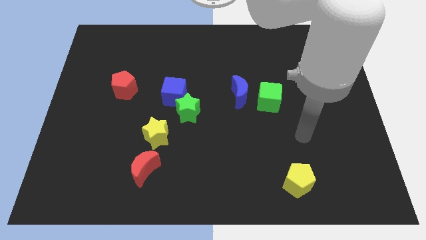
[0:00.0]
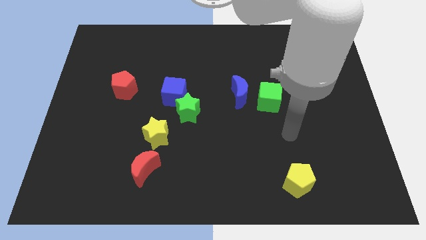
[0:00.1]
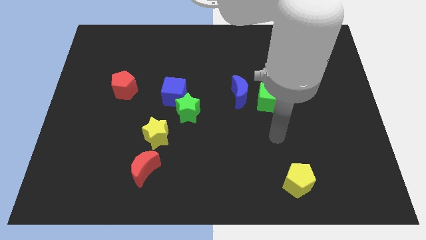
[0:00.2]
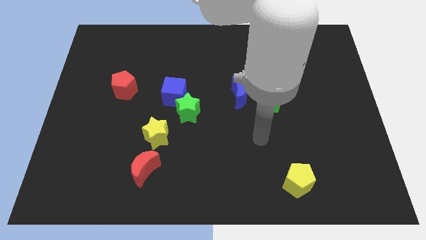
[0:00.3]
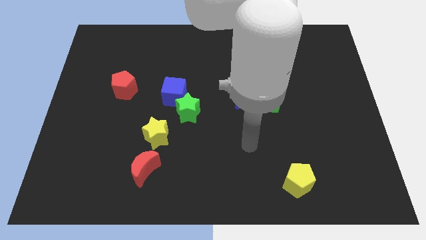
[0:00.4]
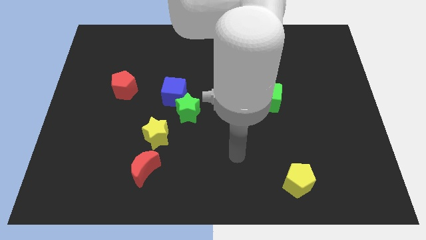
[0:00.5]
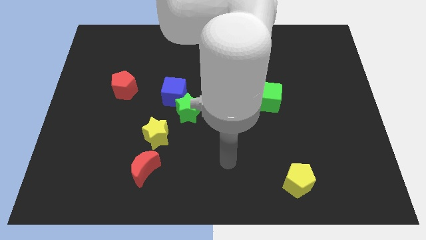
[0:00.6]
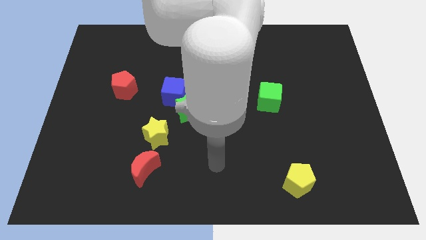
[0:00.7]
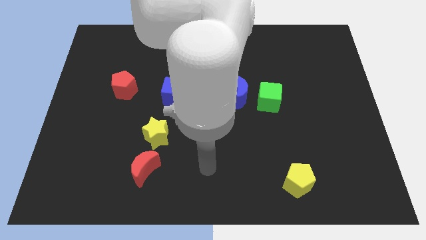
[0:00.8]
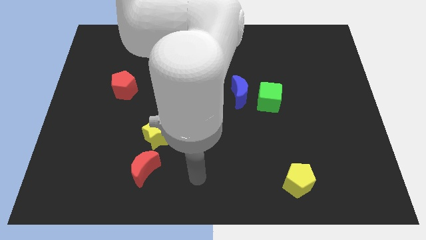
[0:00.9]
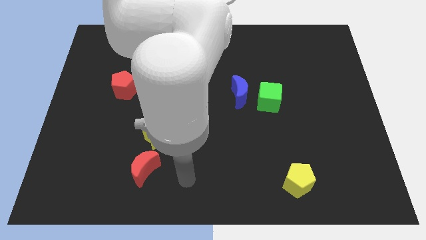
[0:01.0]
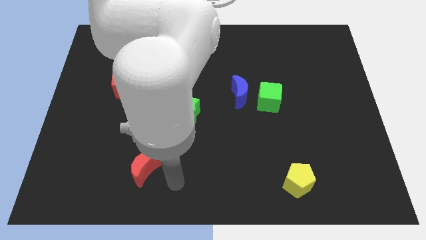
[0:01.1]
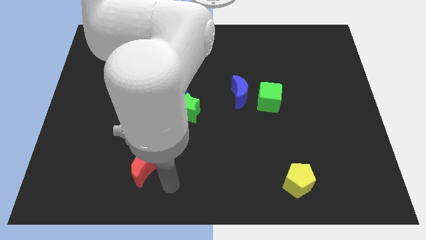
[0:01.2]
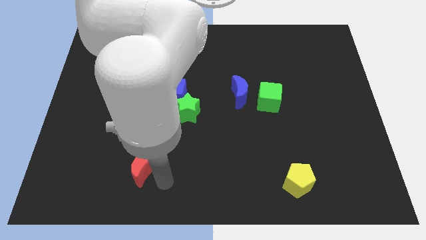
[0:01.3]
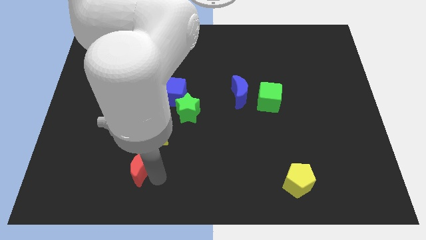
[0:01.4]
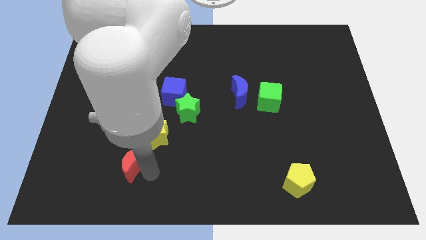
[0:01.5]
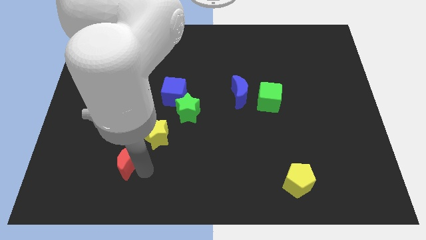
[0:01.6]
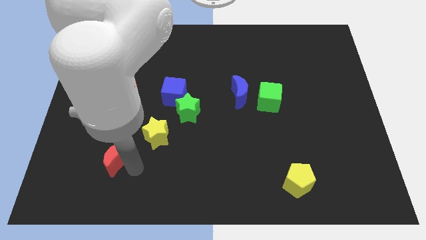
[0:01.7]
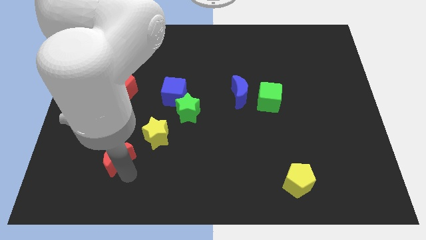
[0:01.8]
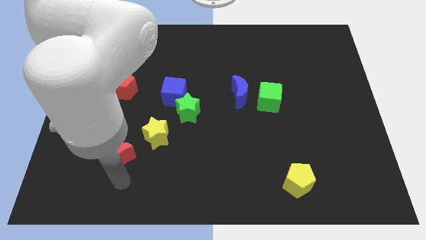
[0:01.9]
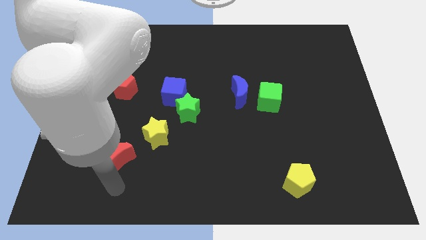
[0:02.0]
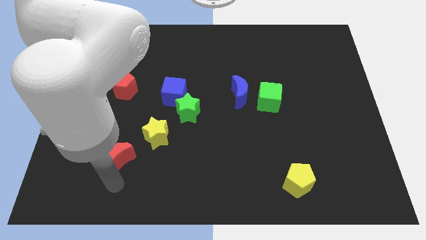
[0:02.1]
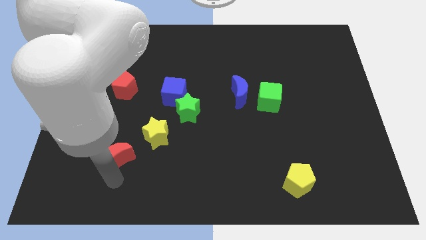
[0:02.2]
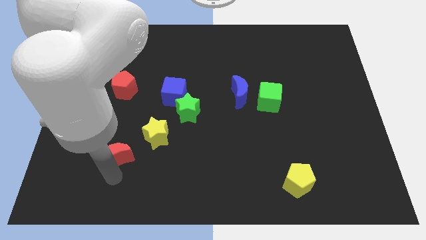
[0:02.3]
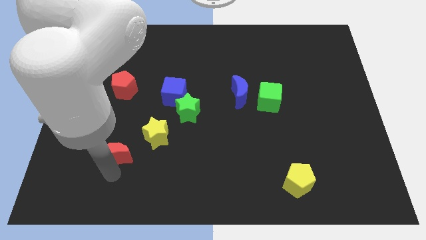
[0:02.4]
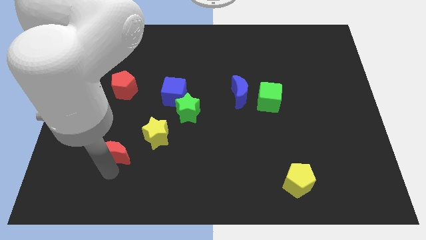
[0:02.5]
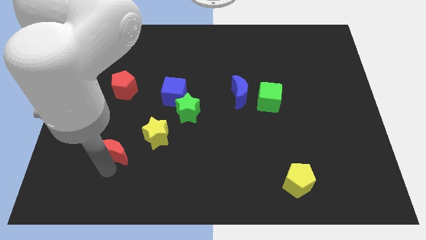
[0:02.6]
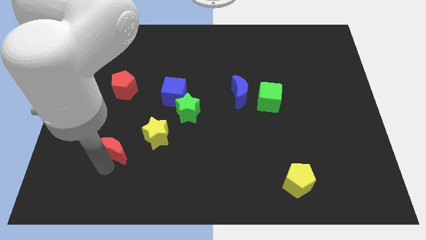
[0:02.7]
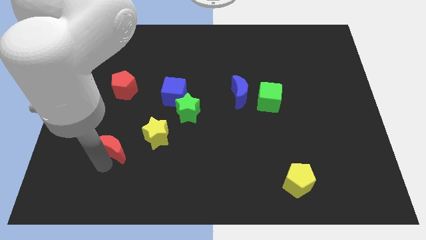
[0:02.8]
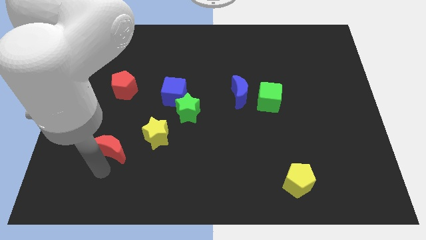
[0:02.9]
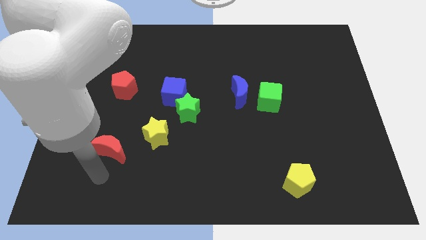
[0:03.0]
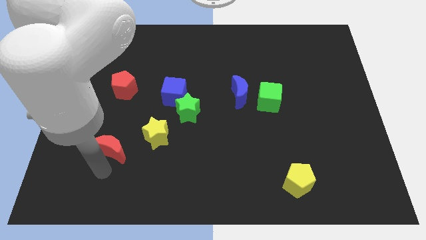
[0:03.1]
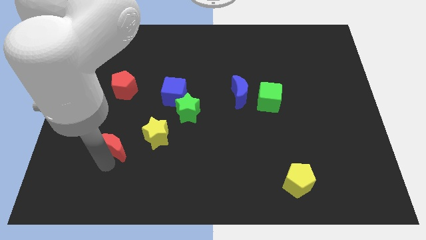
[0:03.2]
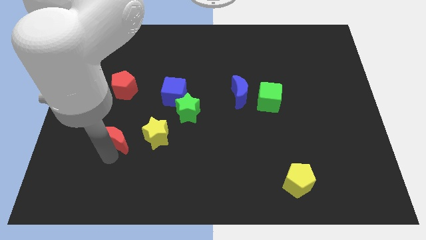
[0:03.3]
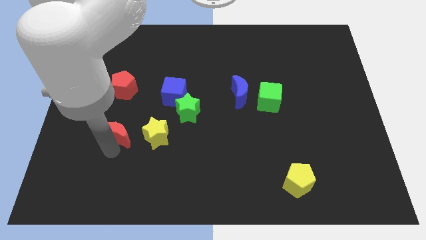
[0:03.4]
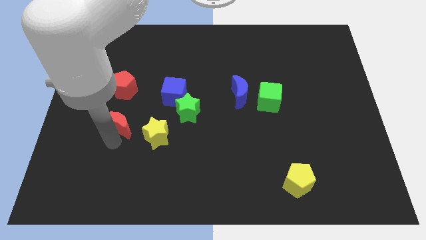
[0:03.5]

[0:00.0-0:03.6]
slide the red moon upwards a bit

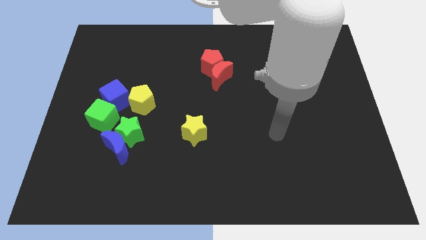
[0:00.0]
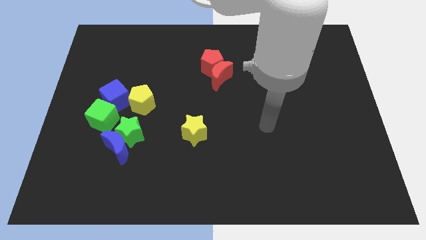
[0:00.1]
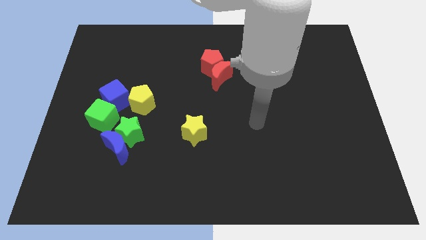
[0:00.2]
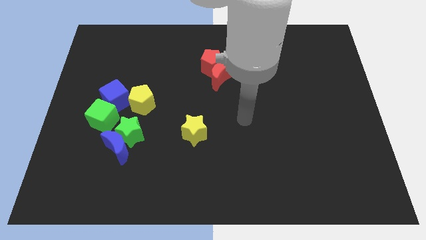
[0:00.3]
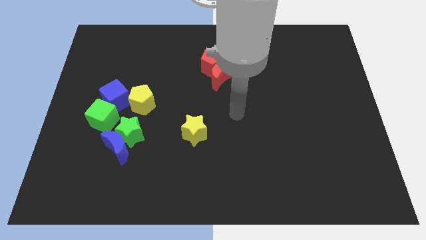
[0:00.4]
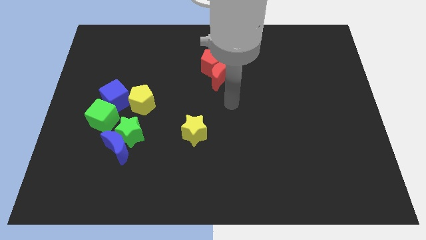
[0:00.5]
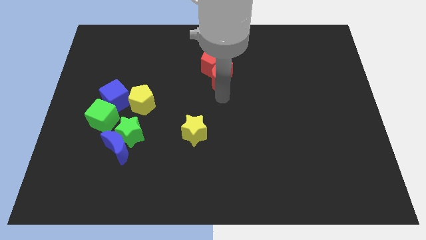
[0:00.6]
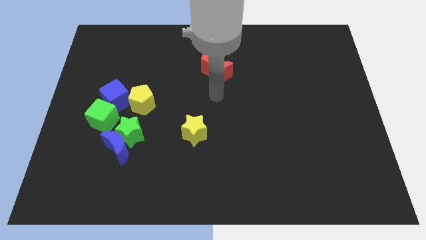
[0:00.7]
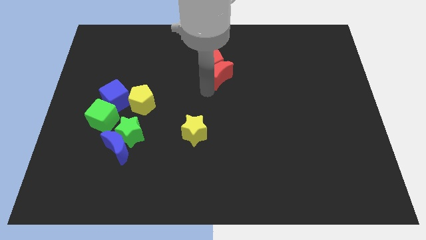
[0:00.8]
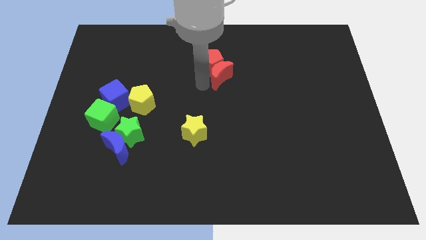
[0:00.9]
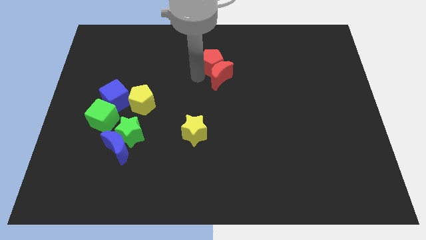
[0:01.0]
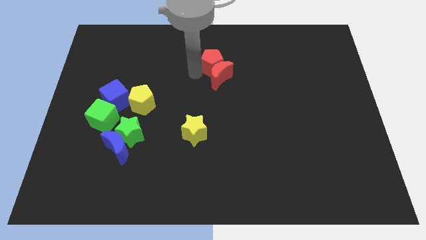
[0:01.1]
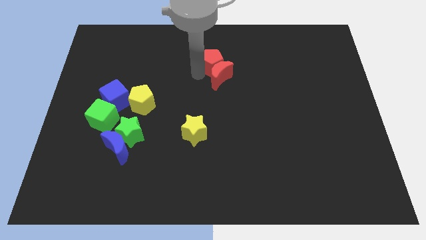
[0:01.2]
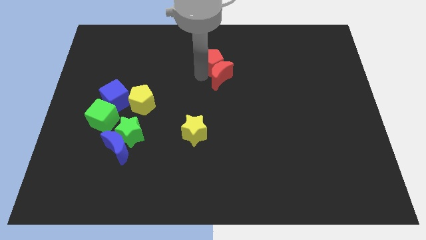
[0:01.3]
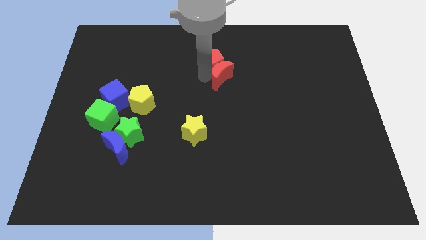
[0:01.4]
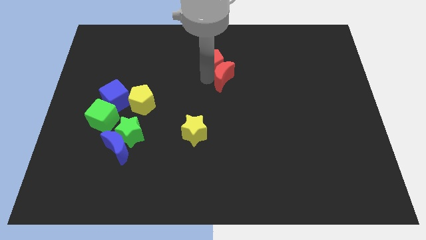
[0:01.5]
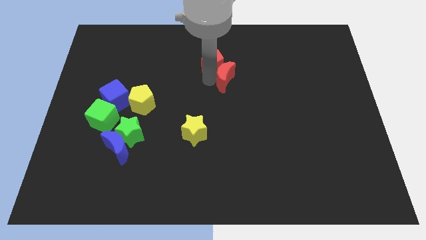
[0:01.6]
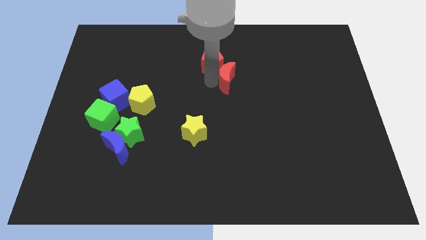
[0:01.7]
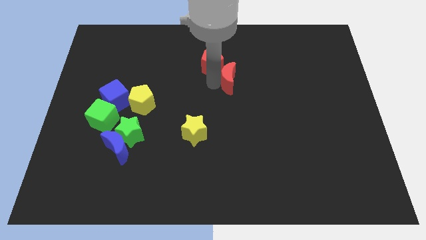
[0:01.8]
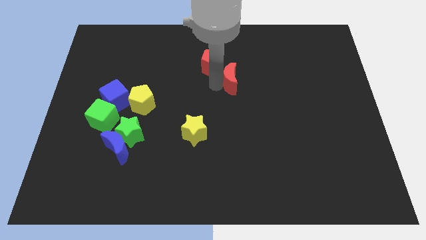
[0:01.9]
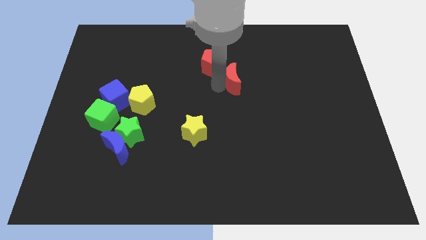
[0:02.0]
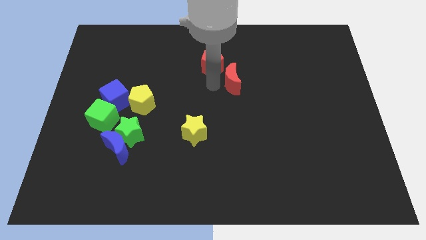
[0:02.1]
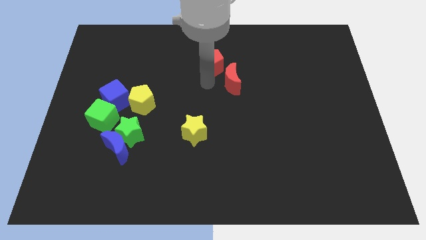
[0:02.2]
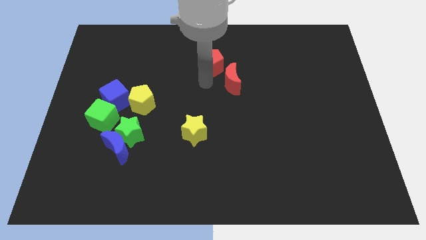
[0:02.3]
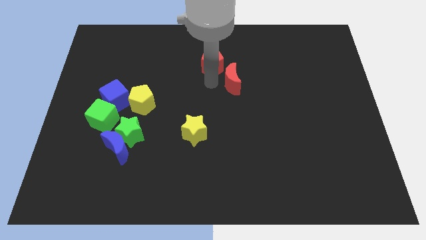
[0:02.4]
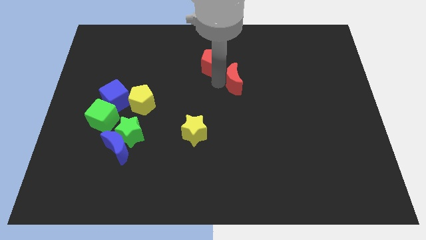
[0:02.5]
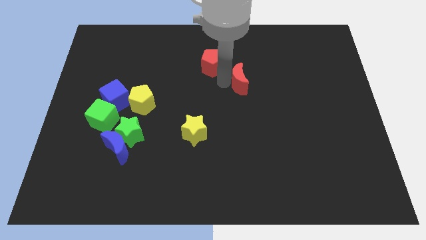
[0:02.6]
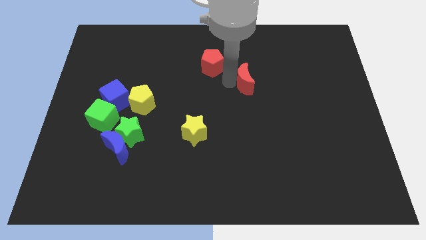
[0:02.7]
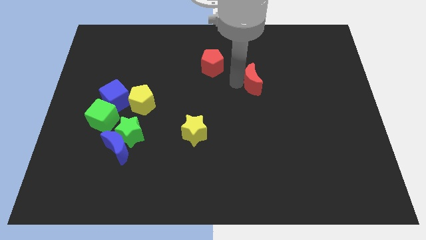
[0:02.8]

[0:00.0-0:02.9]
push the red moon right a bit

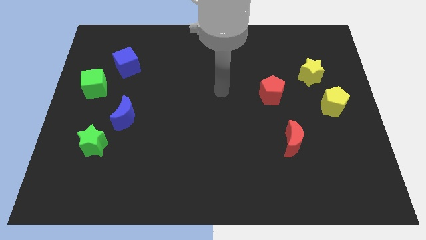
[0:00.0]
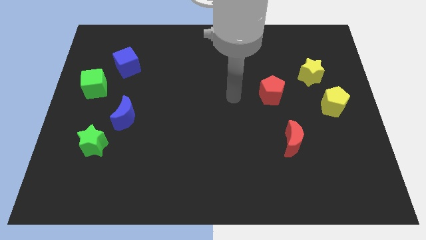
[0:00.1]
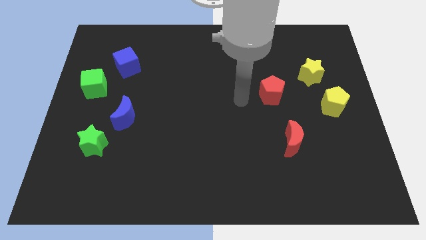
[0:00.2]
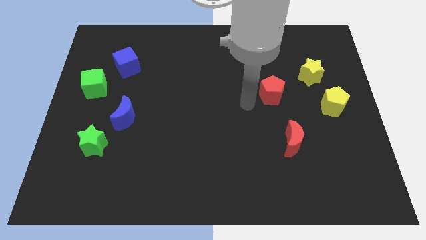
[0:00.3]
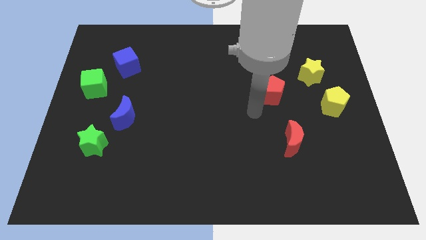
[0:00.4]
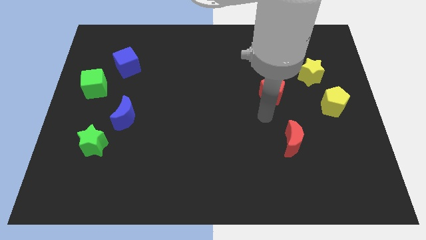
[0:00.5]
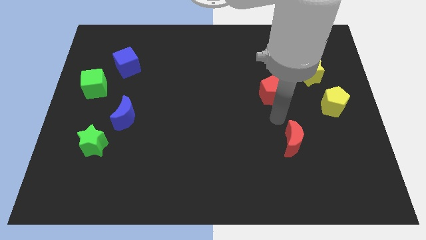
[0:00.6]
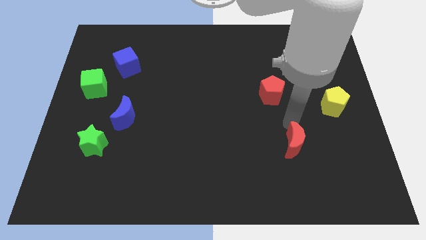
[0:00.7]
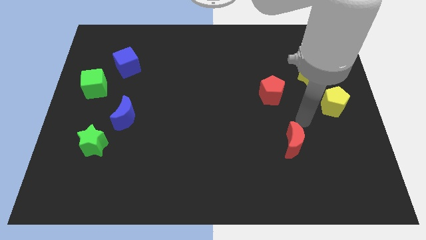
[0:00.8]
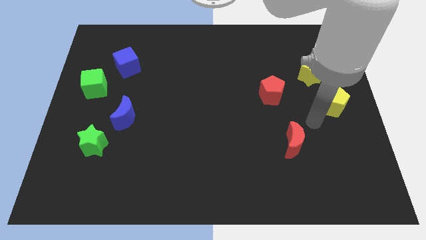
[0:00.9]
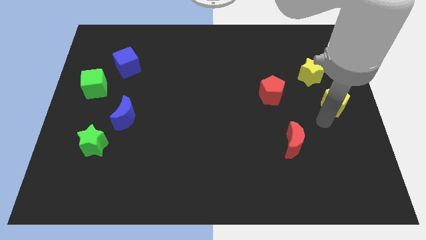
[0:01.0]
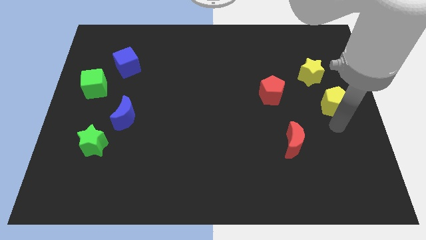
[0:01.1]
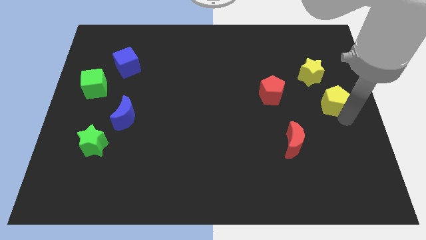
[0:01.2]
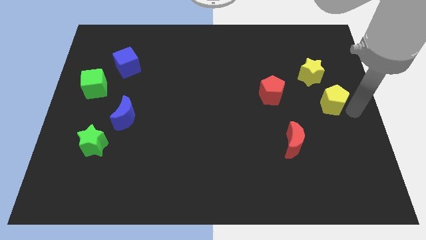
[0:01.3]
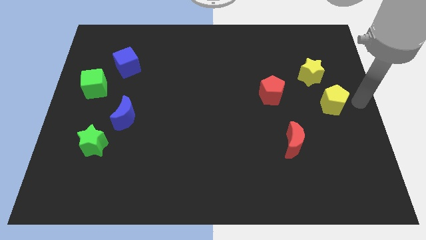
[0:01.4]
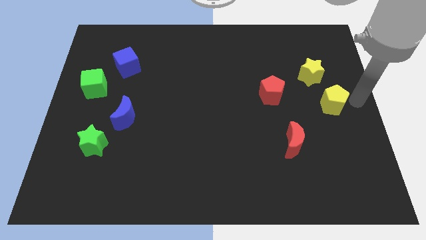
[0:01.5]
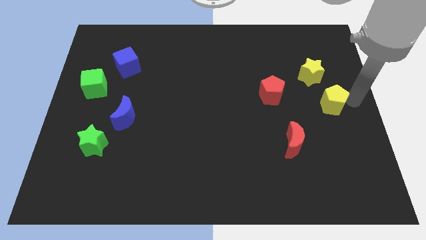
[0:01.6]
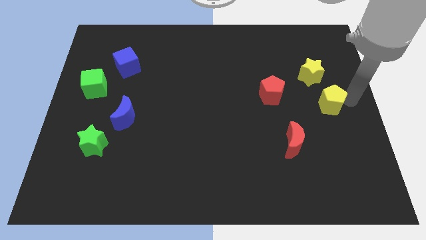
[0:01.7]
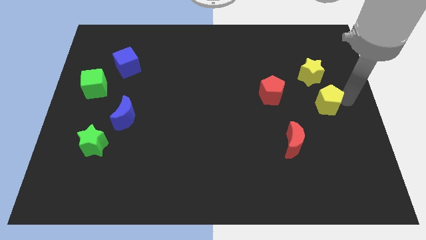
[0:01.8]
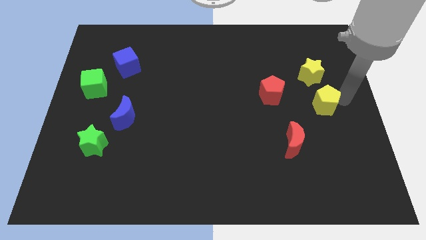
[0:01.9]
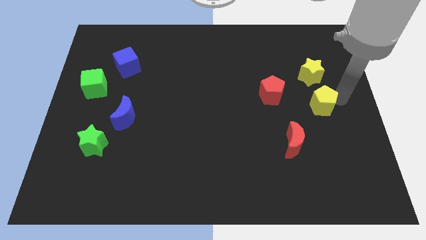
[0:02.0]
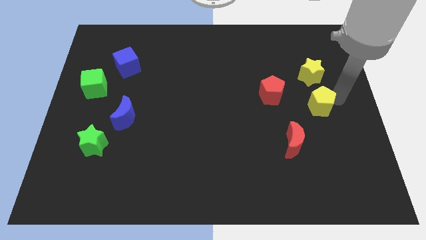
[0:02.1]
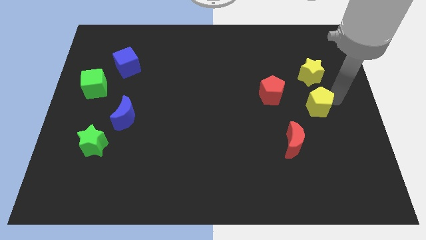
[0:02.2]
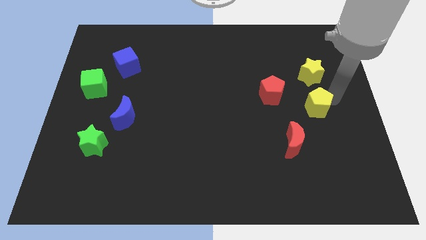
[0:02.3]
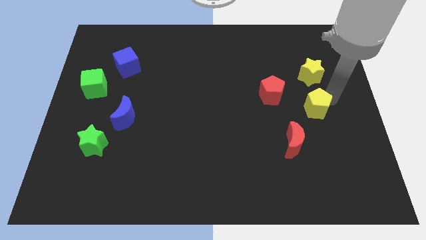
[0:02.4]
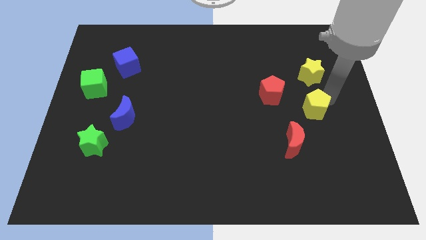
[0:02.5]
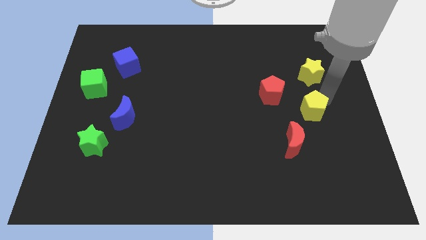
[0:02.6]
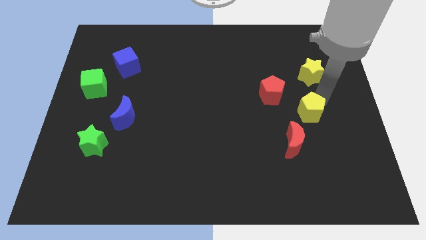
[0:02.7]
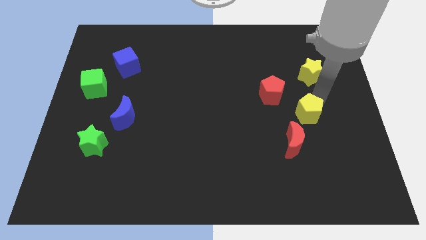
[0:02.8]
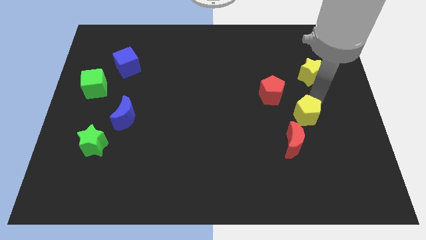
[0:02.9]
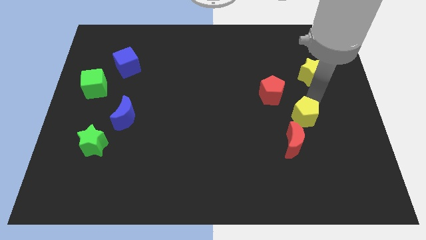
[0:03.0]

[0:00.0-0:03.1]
slightly move the yellow pentagon to the left
